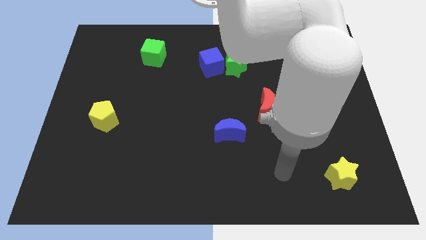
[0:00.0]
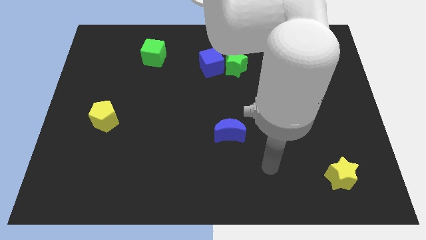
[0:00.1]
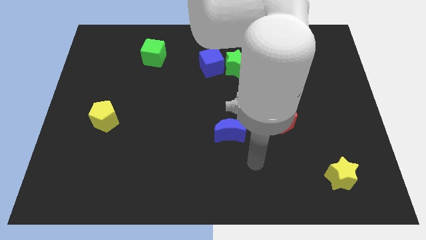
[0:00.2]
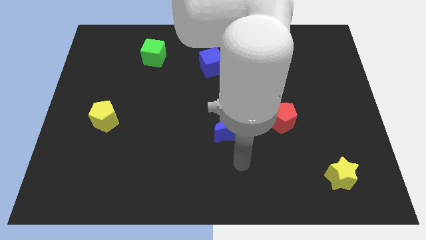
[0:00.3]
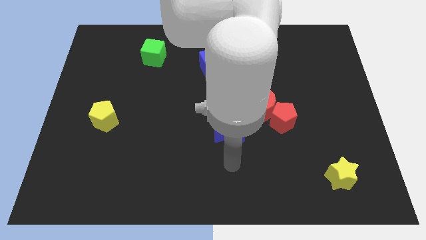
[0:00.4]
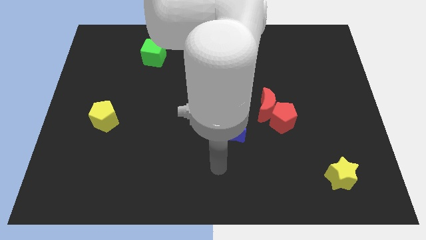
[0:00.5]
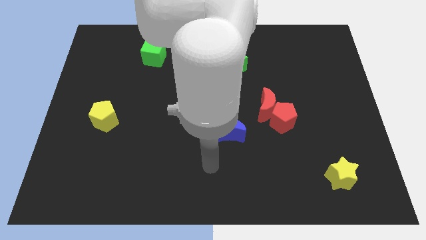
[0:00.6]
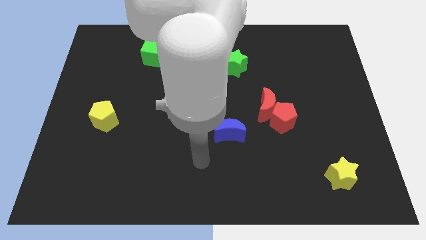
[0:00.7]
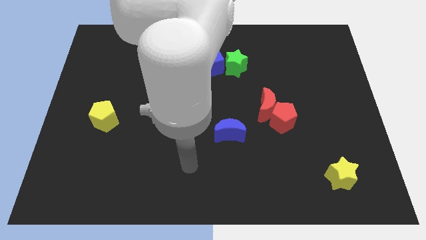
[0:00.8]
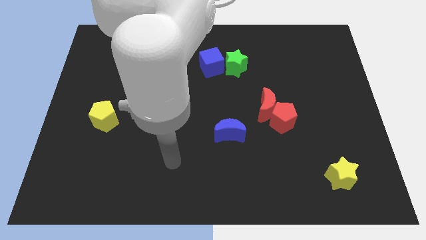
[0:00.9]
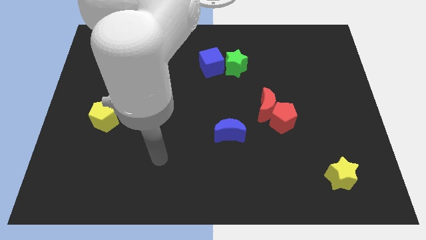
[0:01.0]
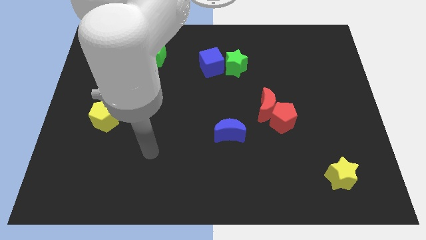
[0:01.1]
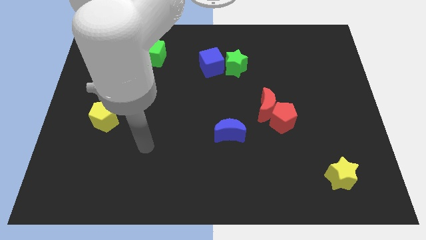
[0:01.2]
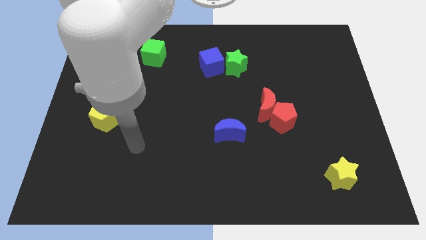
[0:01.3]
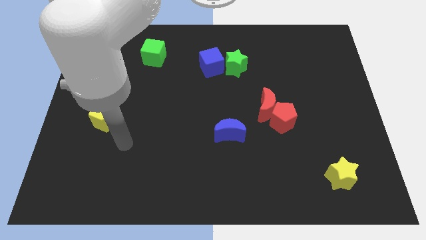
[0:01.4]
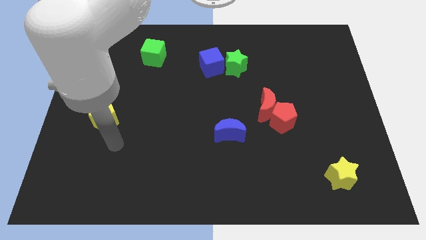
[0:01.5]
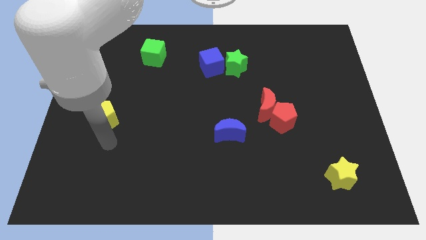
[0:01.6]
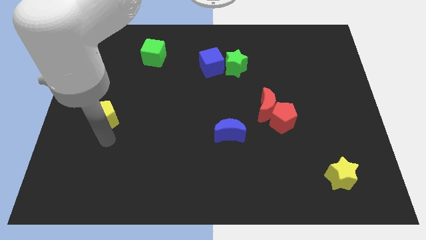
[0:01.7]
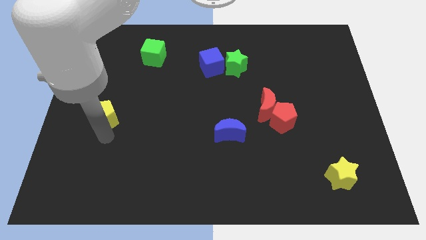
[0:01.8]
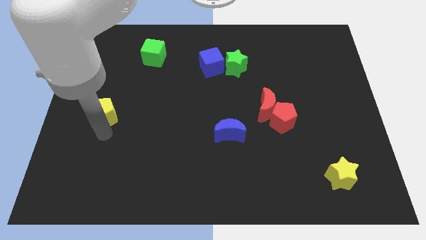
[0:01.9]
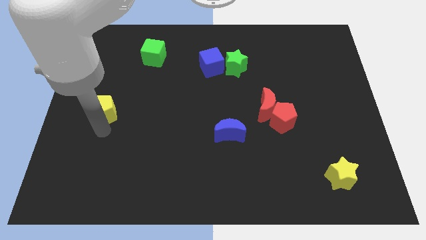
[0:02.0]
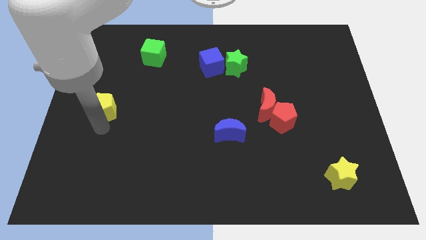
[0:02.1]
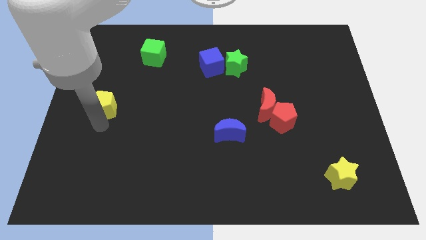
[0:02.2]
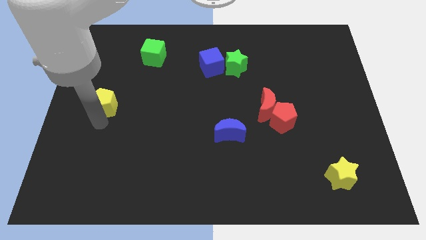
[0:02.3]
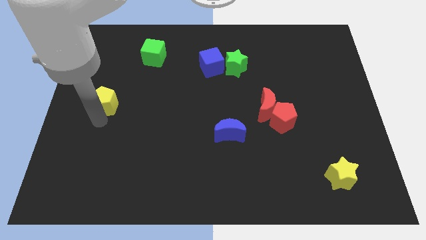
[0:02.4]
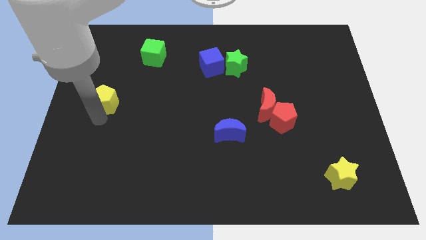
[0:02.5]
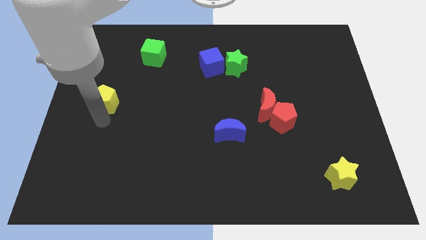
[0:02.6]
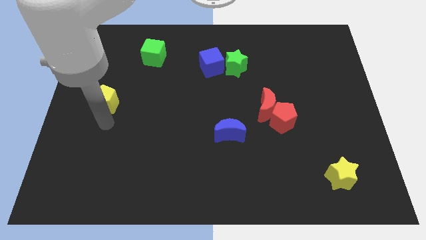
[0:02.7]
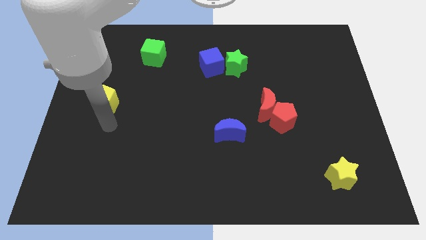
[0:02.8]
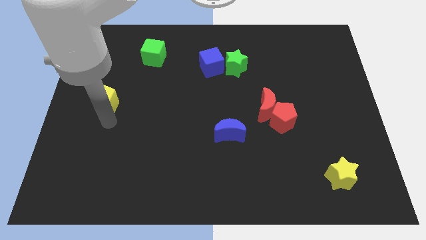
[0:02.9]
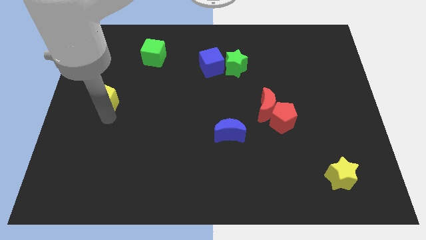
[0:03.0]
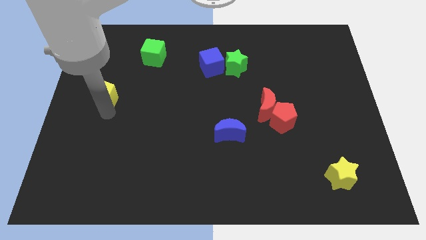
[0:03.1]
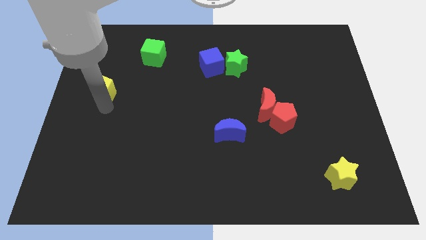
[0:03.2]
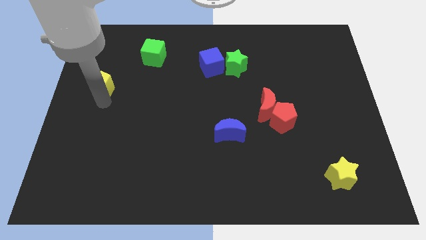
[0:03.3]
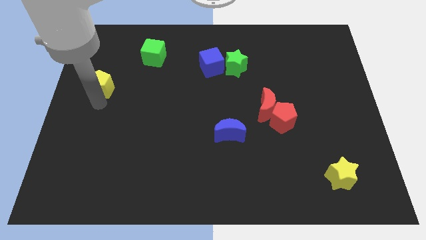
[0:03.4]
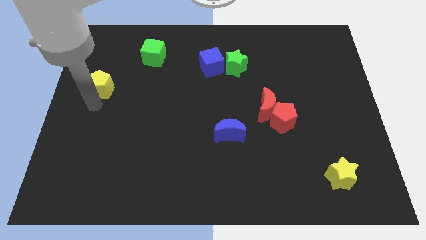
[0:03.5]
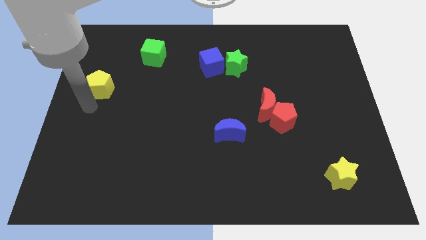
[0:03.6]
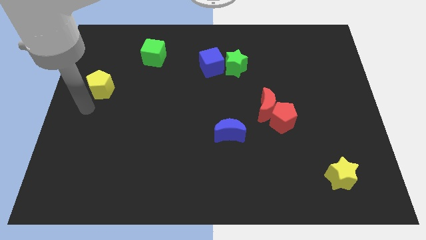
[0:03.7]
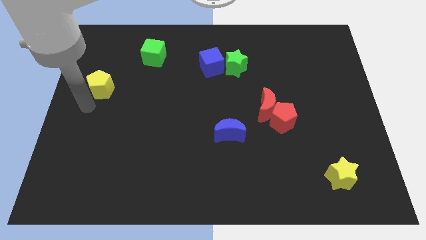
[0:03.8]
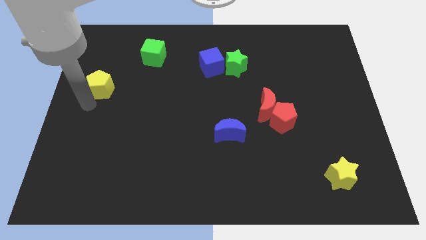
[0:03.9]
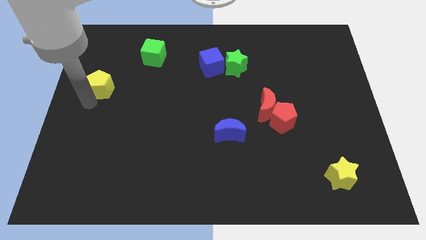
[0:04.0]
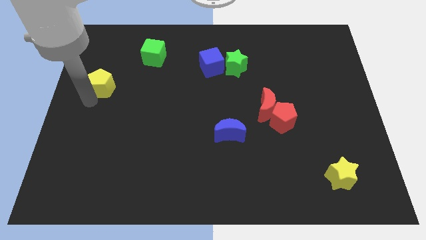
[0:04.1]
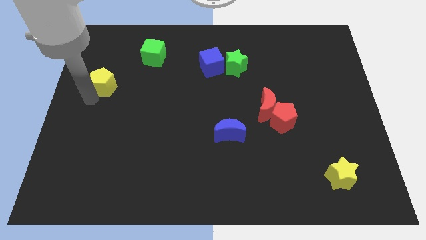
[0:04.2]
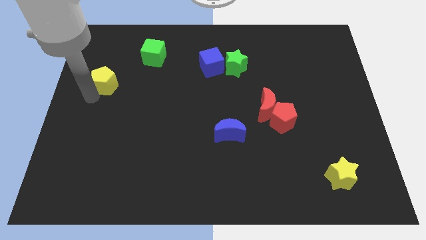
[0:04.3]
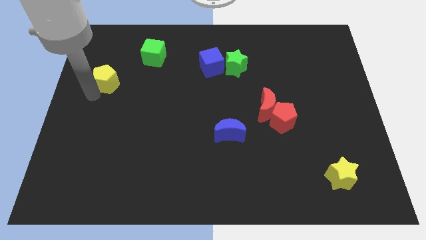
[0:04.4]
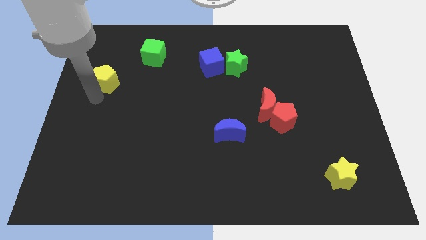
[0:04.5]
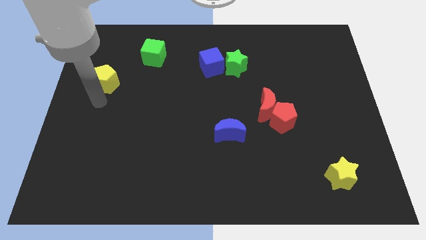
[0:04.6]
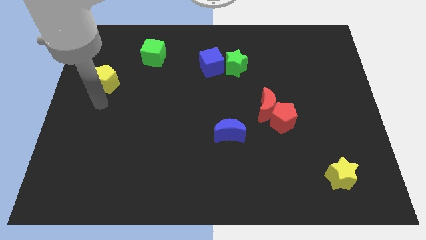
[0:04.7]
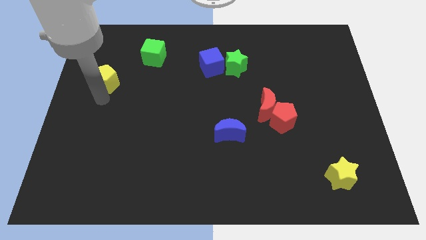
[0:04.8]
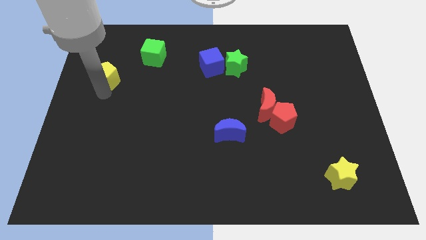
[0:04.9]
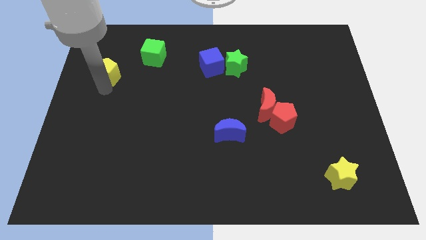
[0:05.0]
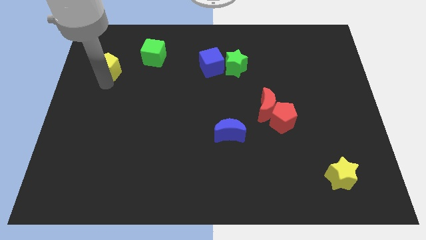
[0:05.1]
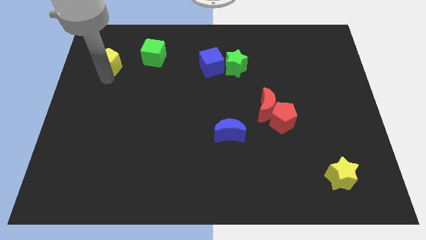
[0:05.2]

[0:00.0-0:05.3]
put the yellow pentagon to the left of the green cube

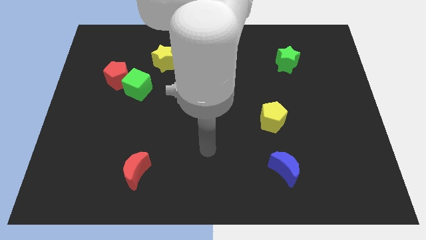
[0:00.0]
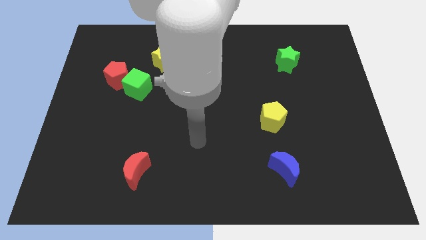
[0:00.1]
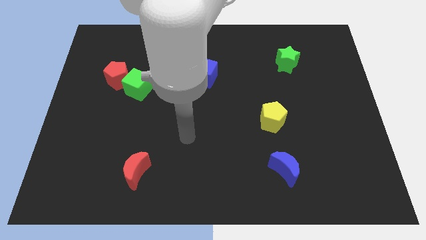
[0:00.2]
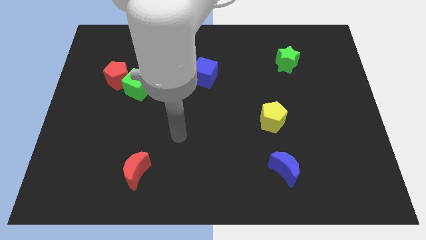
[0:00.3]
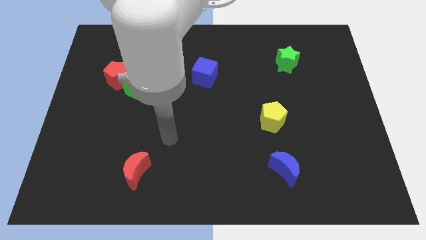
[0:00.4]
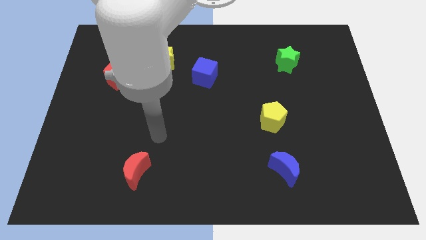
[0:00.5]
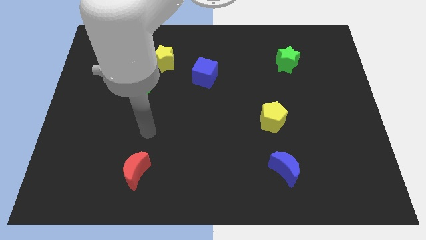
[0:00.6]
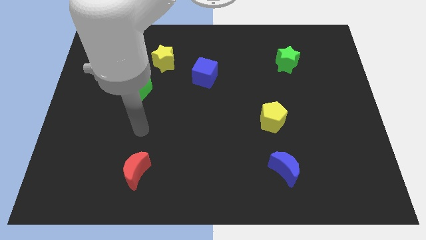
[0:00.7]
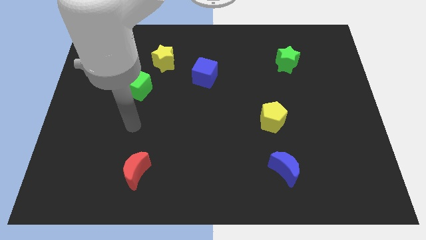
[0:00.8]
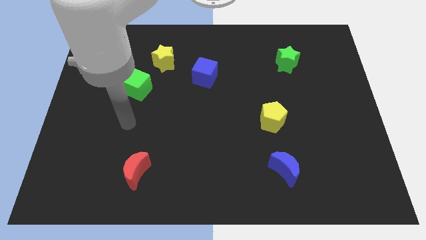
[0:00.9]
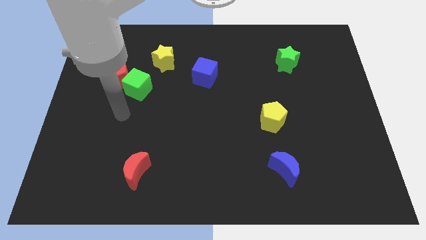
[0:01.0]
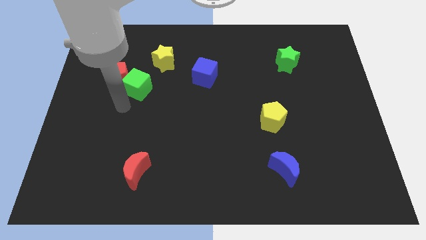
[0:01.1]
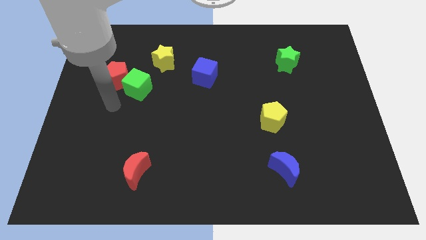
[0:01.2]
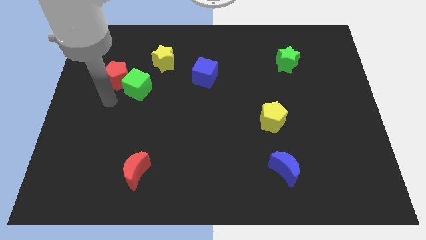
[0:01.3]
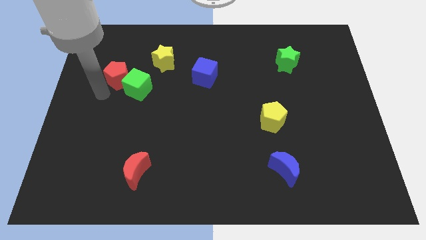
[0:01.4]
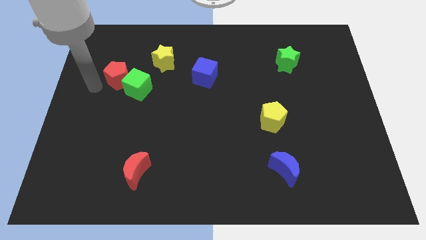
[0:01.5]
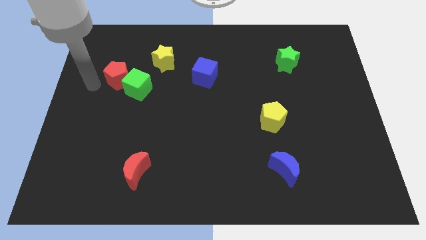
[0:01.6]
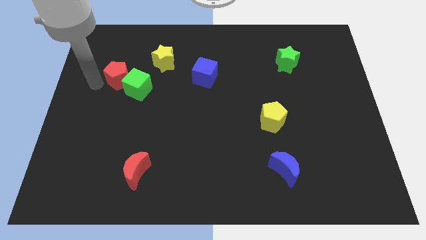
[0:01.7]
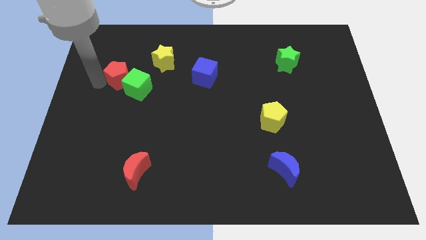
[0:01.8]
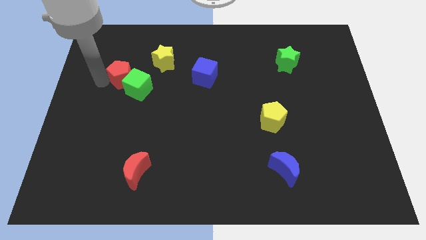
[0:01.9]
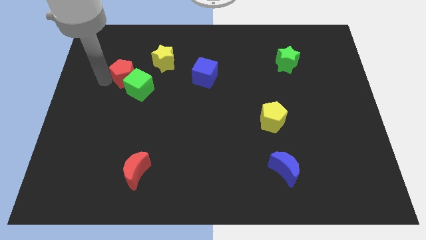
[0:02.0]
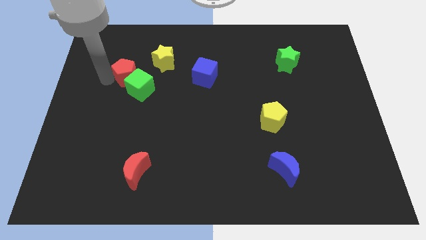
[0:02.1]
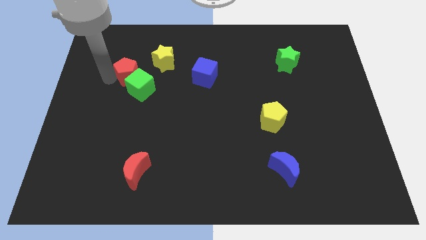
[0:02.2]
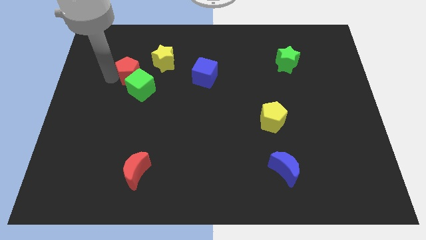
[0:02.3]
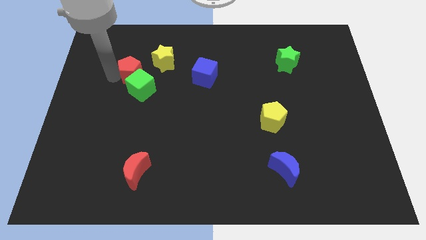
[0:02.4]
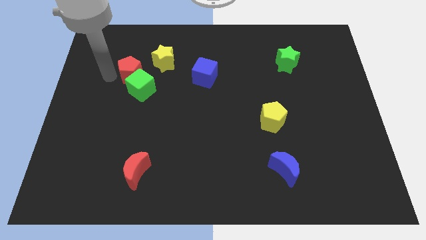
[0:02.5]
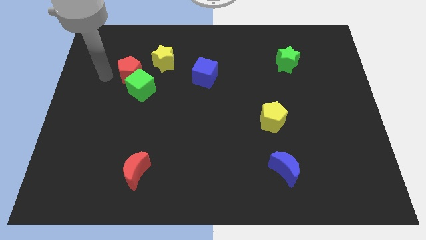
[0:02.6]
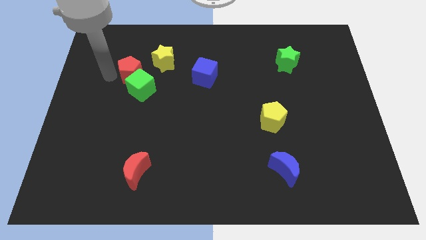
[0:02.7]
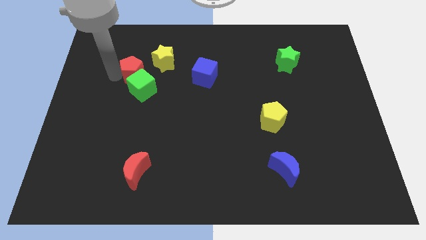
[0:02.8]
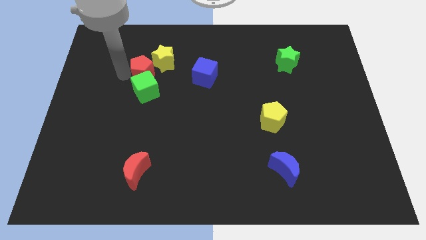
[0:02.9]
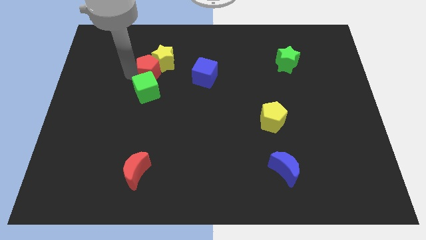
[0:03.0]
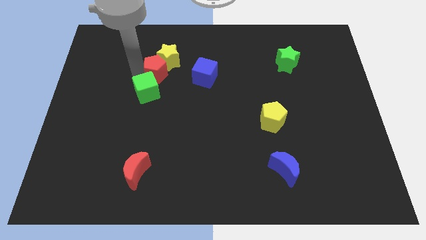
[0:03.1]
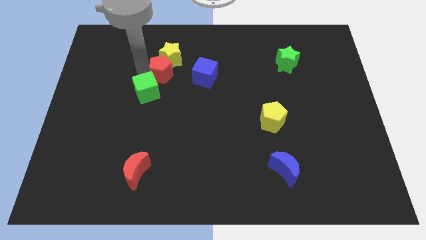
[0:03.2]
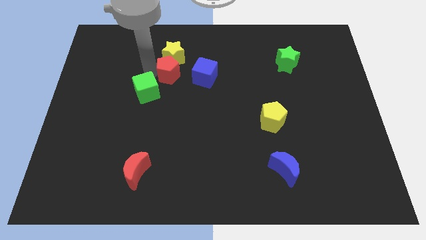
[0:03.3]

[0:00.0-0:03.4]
move the red pentagon diagonally down and to the right of the yellow star
